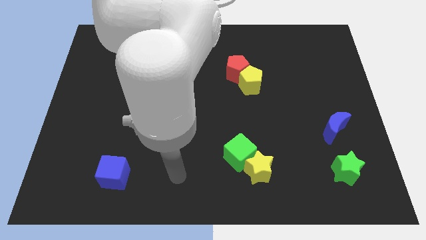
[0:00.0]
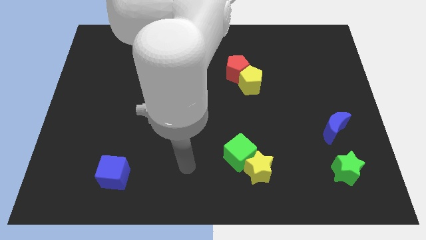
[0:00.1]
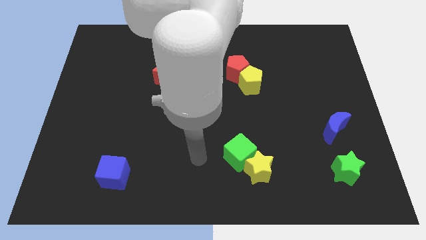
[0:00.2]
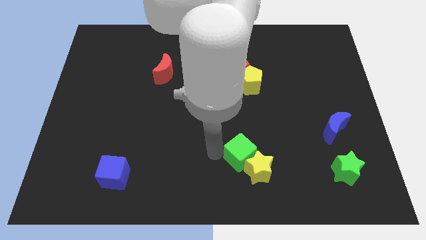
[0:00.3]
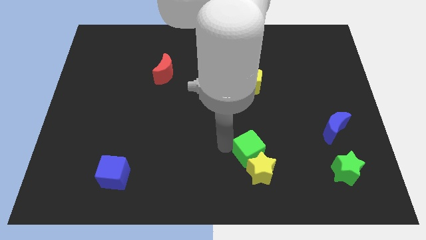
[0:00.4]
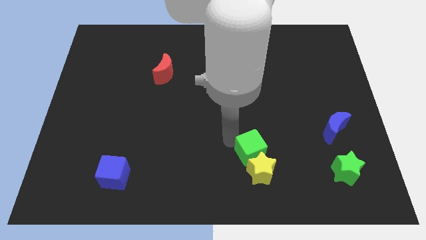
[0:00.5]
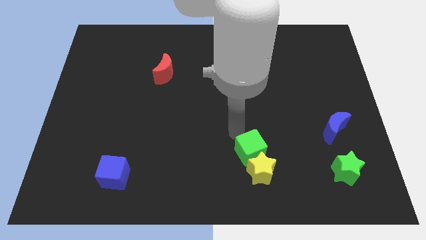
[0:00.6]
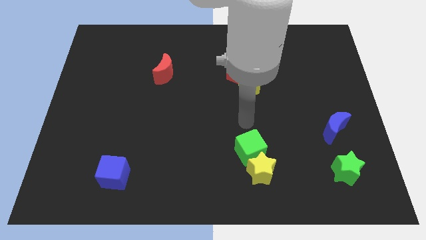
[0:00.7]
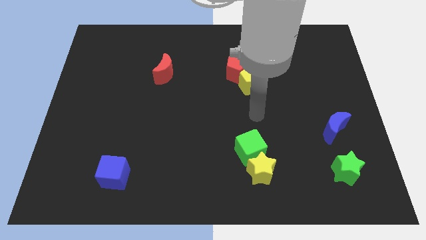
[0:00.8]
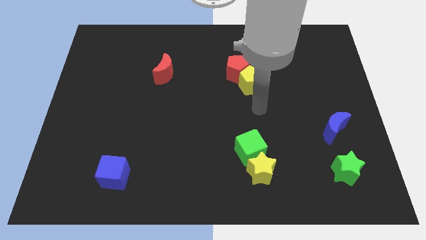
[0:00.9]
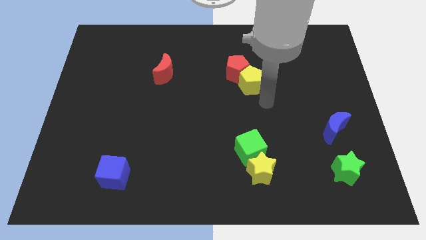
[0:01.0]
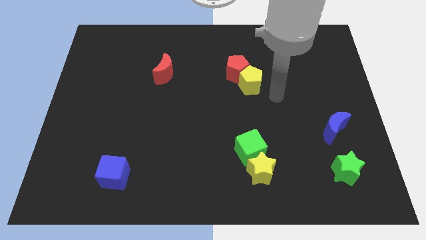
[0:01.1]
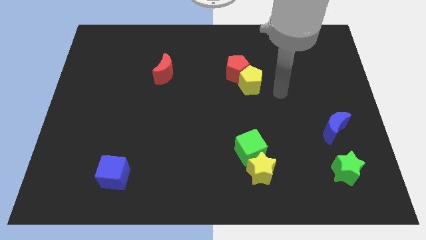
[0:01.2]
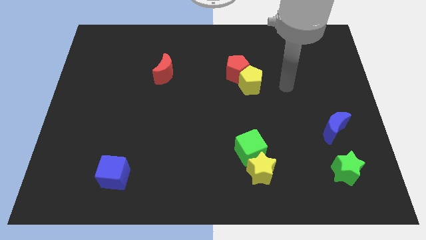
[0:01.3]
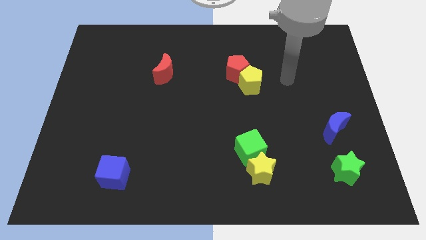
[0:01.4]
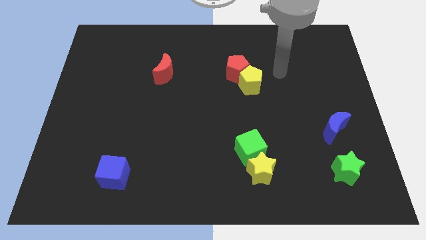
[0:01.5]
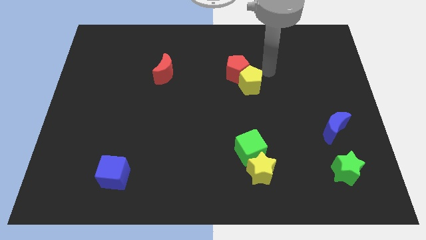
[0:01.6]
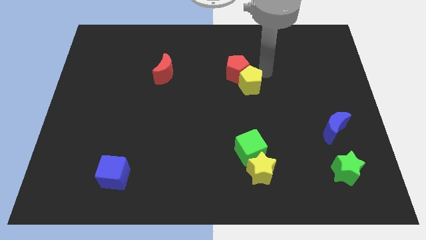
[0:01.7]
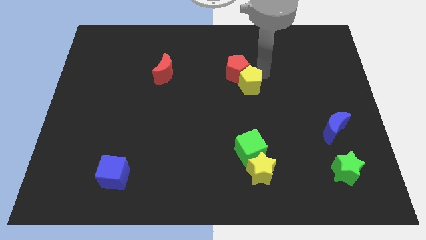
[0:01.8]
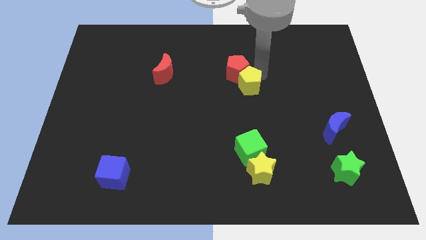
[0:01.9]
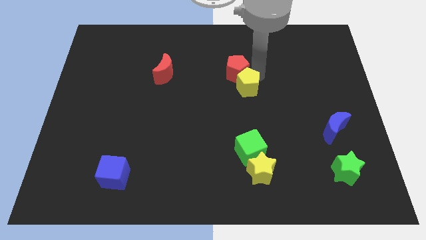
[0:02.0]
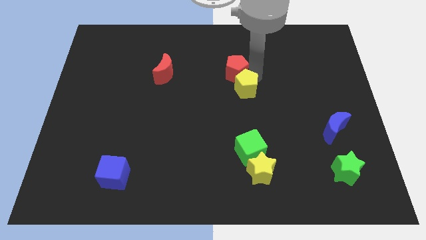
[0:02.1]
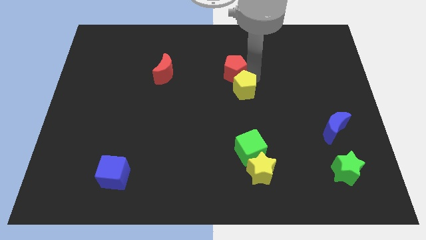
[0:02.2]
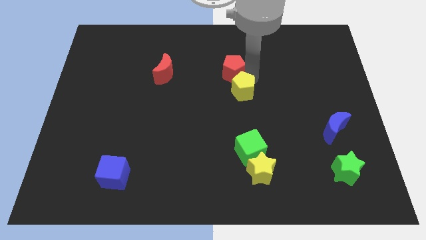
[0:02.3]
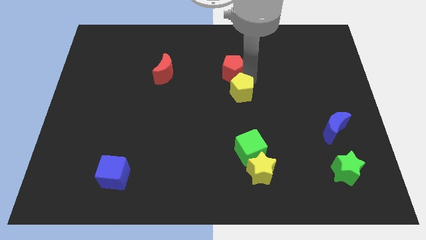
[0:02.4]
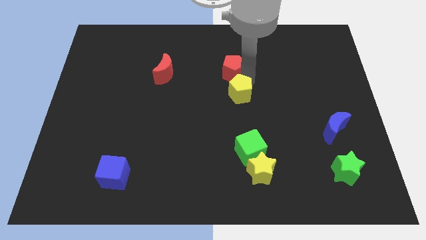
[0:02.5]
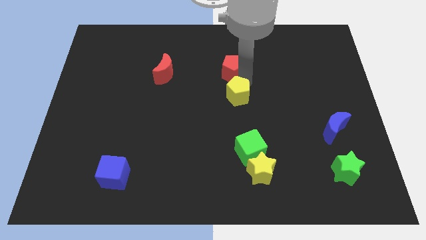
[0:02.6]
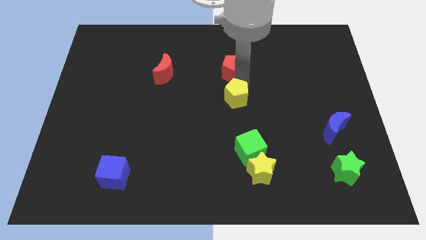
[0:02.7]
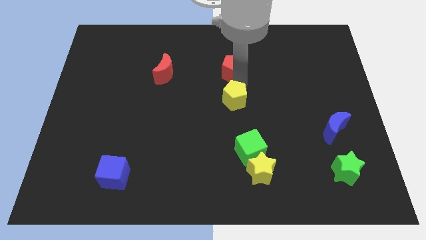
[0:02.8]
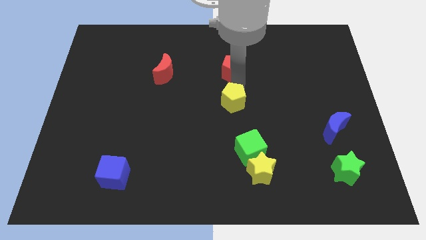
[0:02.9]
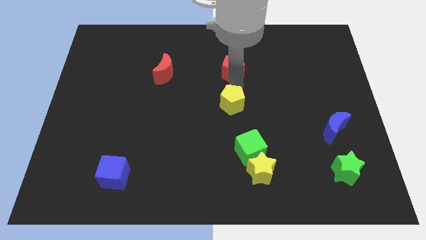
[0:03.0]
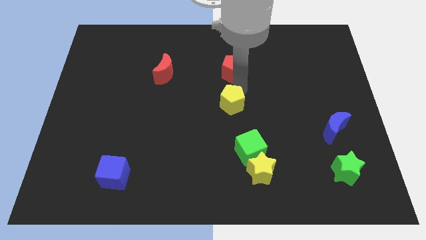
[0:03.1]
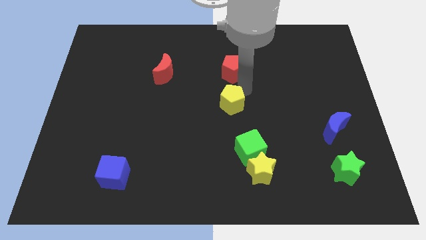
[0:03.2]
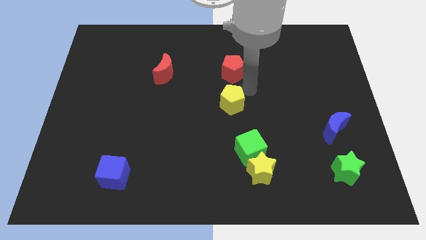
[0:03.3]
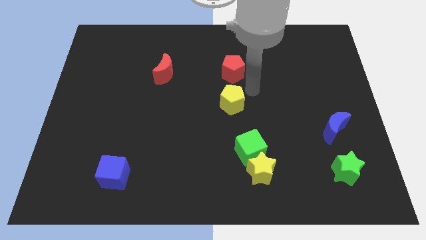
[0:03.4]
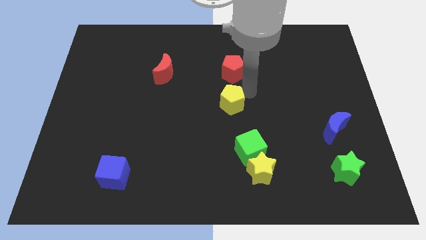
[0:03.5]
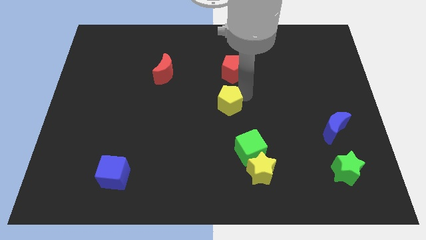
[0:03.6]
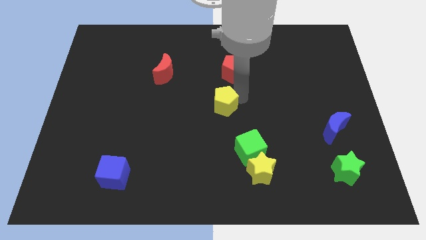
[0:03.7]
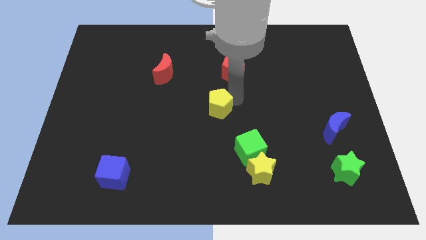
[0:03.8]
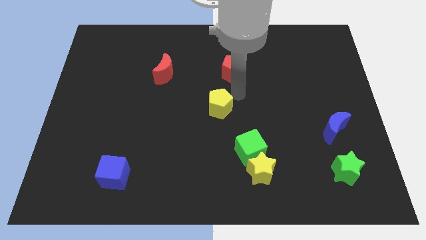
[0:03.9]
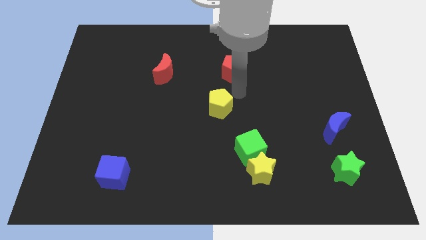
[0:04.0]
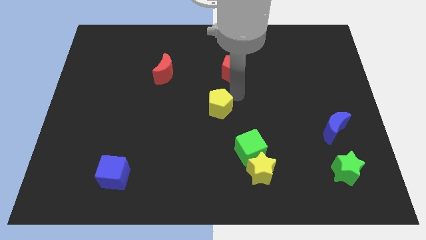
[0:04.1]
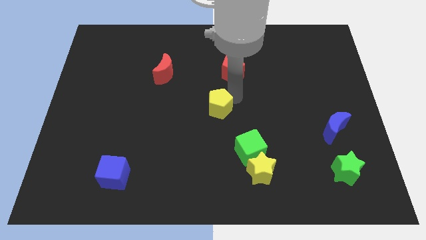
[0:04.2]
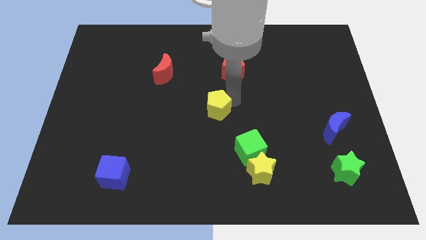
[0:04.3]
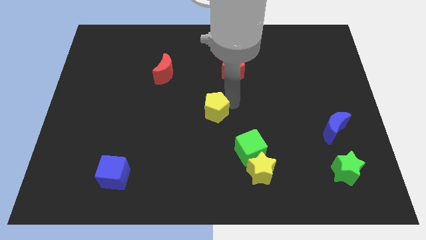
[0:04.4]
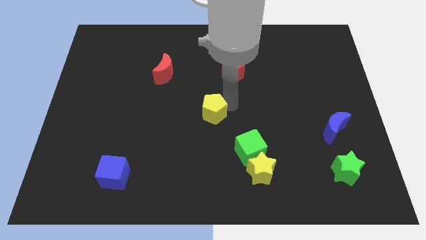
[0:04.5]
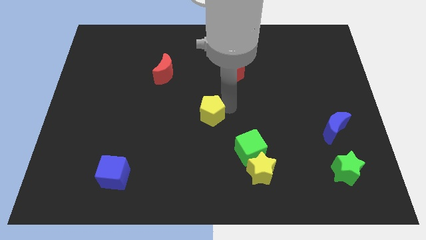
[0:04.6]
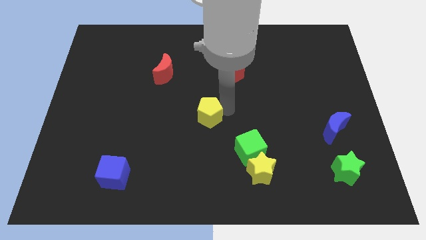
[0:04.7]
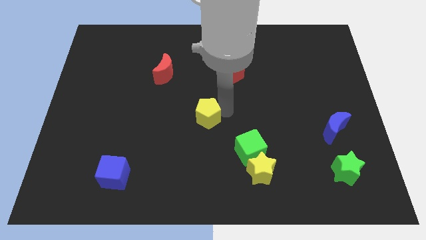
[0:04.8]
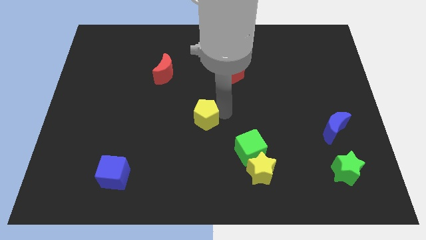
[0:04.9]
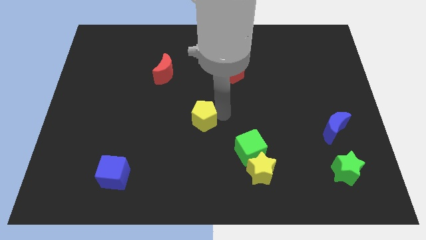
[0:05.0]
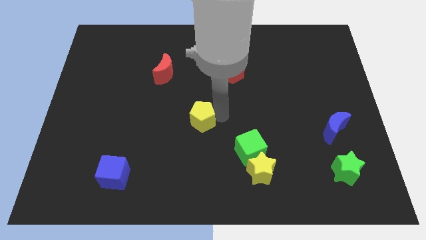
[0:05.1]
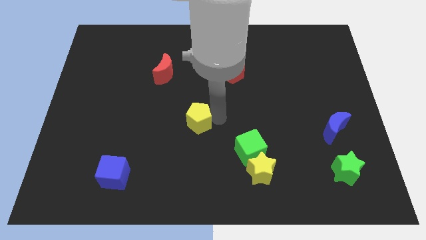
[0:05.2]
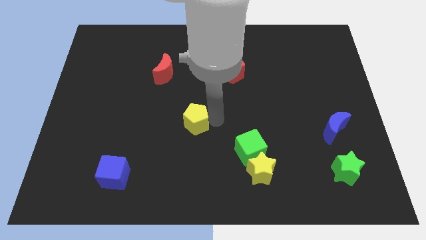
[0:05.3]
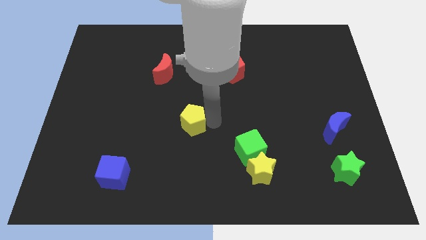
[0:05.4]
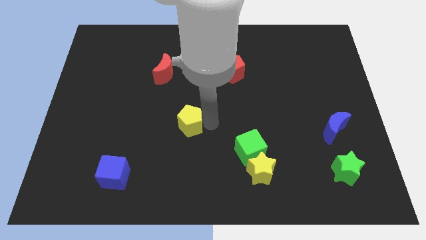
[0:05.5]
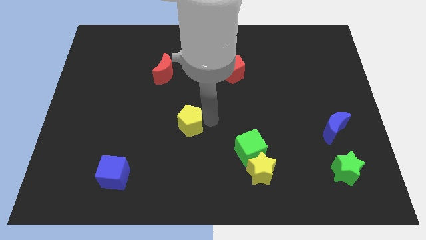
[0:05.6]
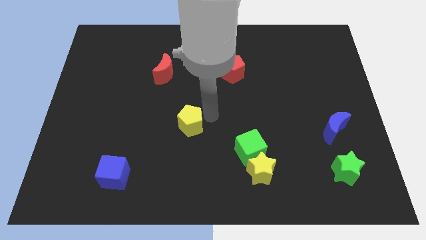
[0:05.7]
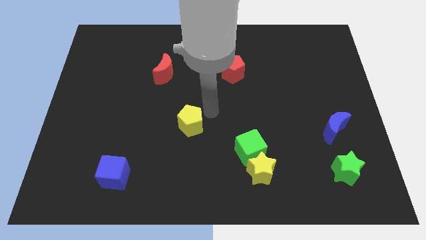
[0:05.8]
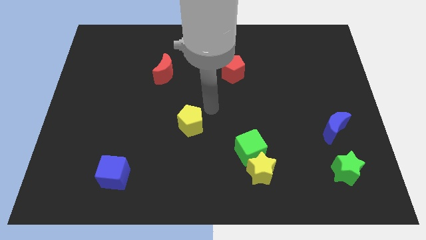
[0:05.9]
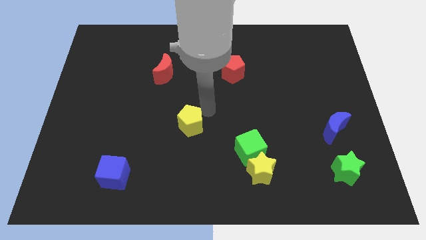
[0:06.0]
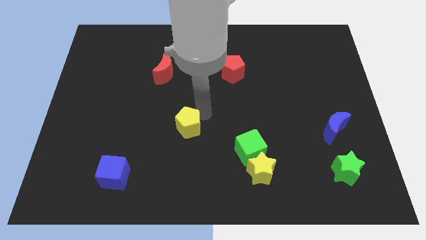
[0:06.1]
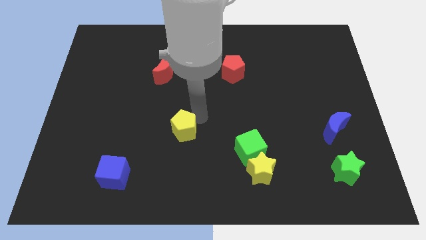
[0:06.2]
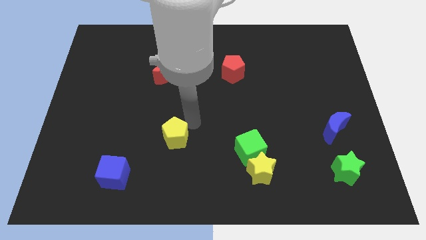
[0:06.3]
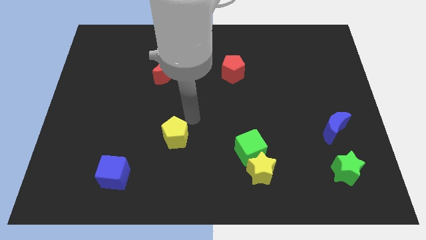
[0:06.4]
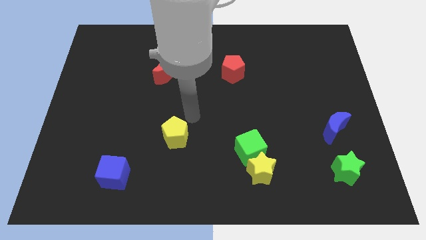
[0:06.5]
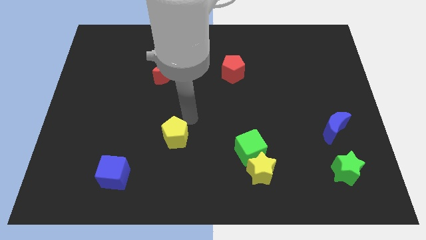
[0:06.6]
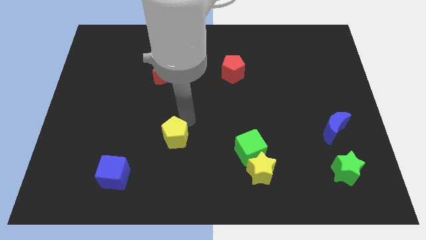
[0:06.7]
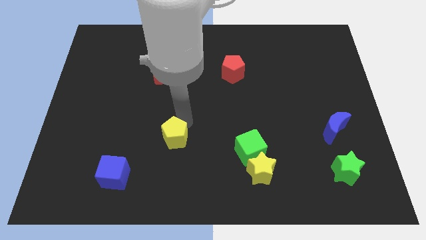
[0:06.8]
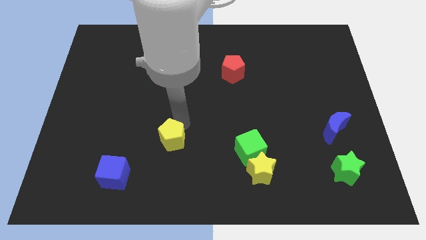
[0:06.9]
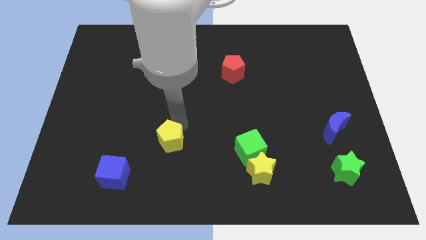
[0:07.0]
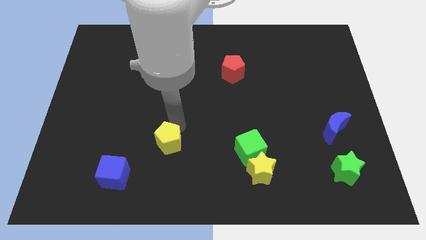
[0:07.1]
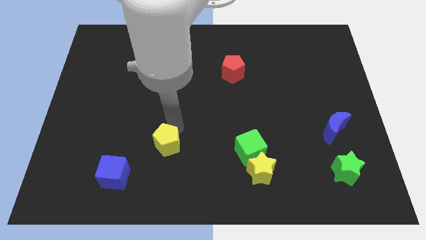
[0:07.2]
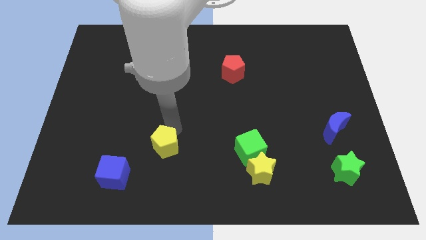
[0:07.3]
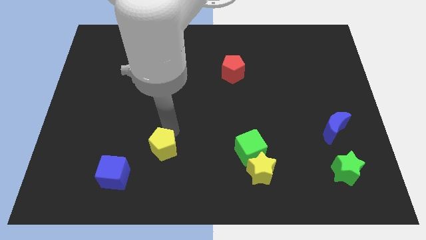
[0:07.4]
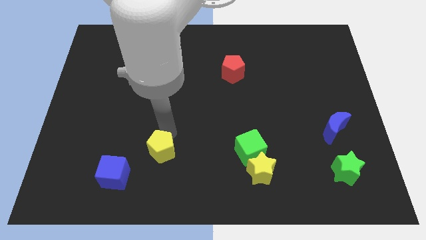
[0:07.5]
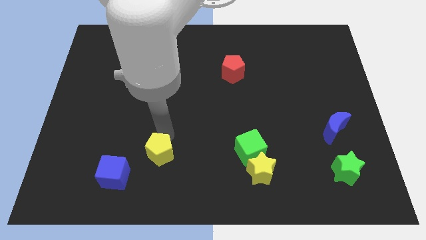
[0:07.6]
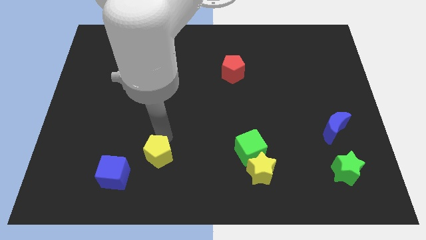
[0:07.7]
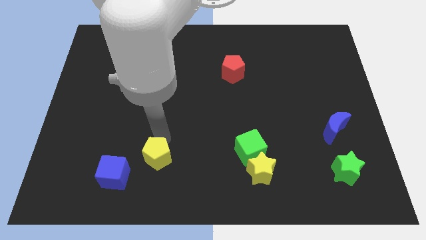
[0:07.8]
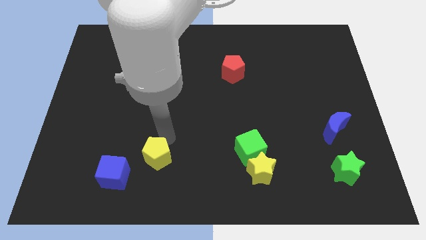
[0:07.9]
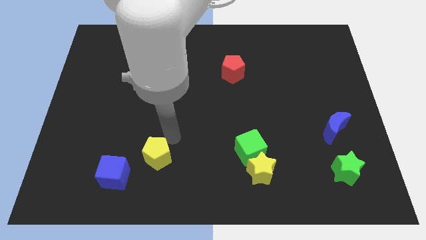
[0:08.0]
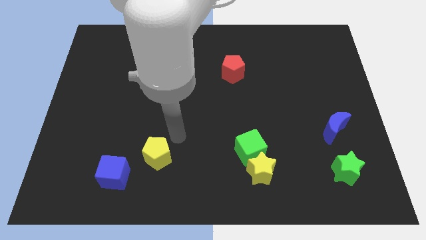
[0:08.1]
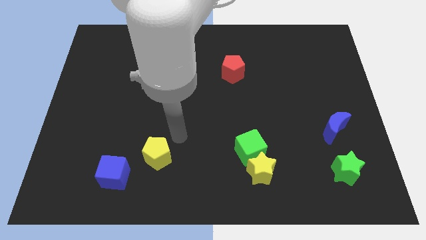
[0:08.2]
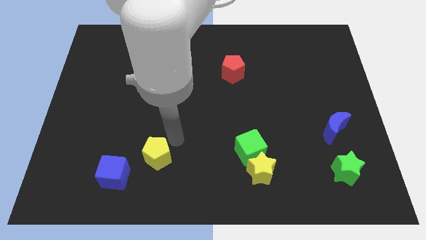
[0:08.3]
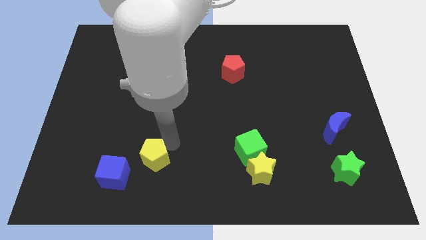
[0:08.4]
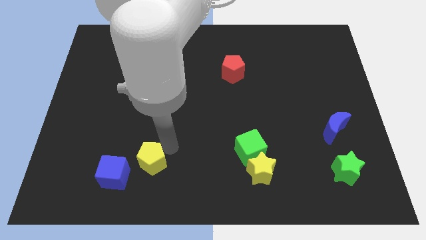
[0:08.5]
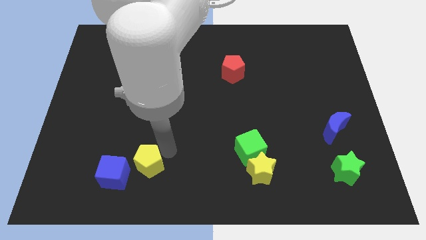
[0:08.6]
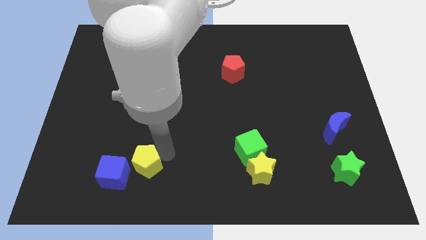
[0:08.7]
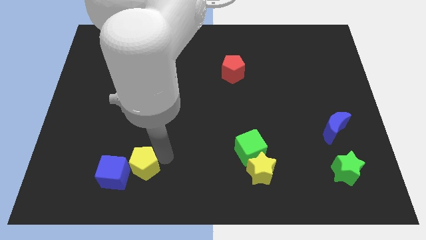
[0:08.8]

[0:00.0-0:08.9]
push the yellow pentagon next to the blue cube
